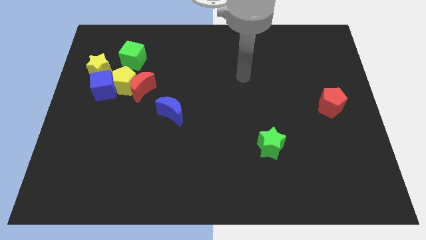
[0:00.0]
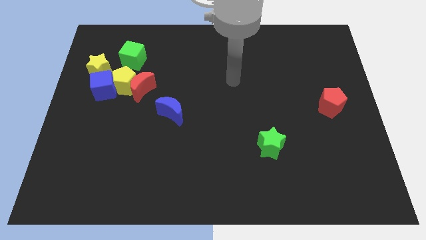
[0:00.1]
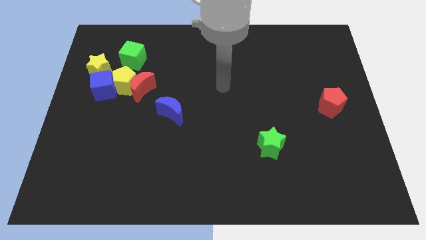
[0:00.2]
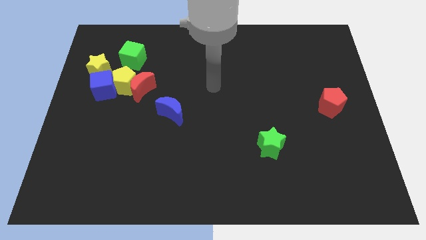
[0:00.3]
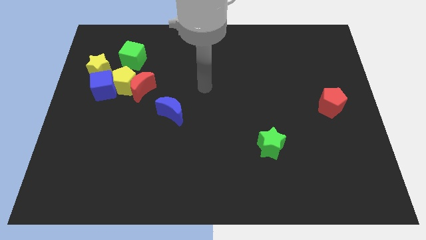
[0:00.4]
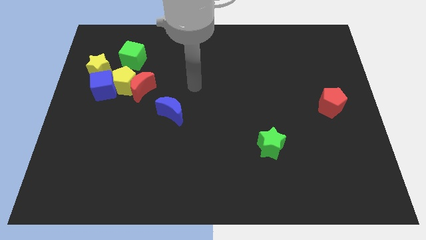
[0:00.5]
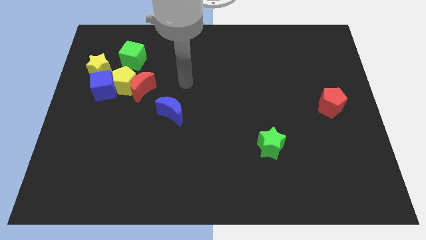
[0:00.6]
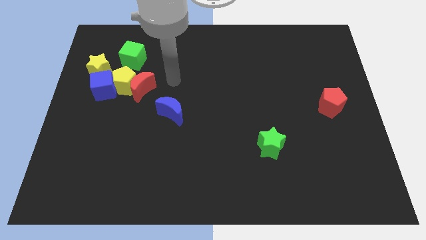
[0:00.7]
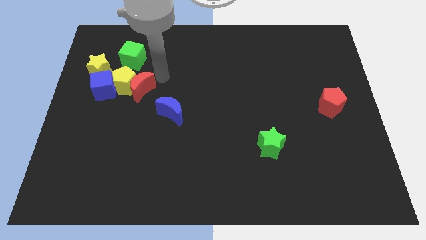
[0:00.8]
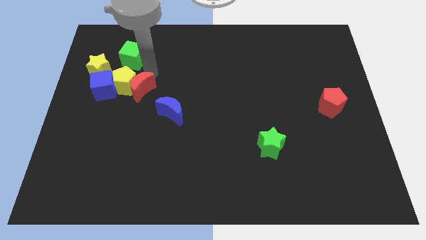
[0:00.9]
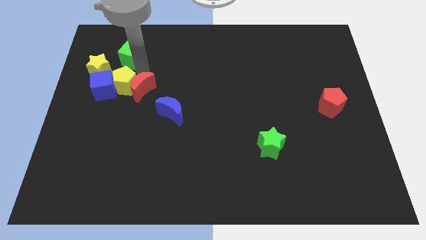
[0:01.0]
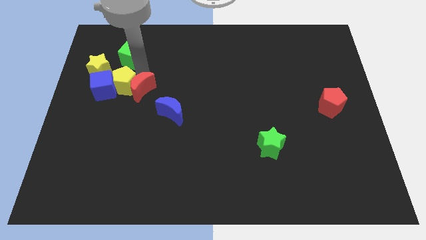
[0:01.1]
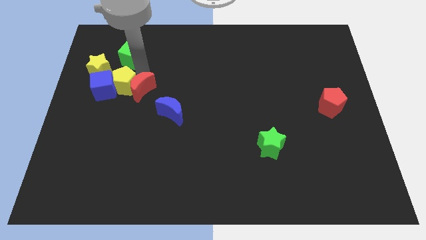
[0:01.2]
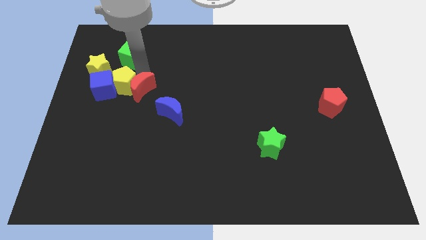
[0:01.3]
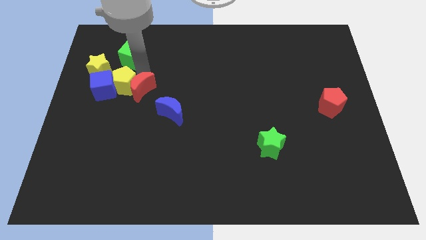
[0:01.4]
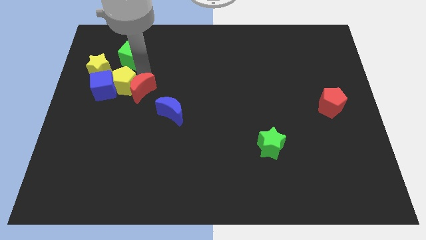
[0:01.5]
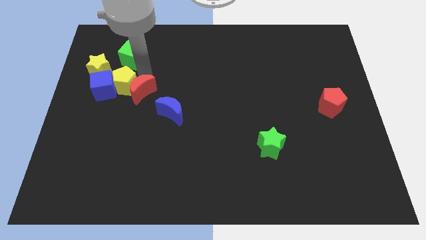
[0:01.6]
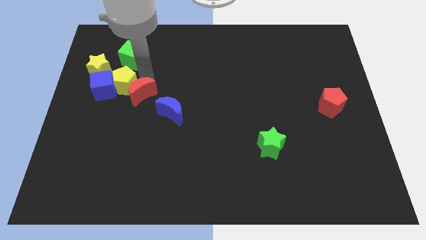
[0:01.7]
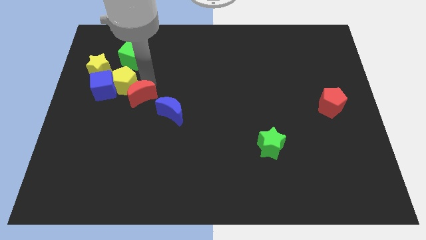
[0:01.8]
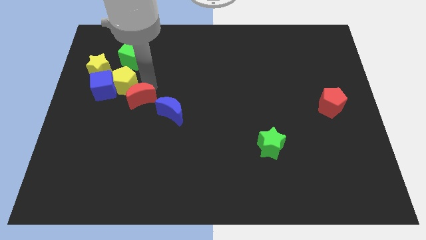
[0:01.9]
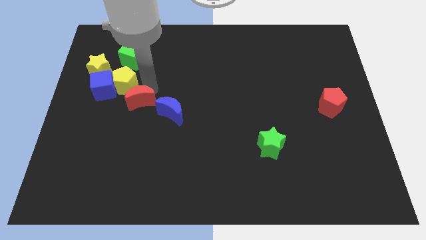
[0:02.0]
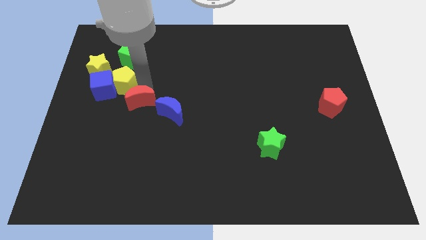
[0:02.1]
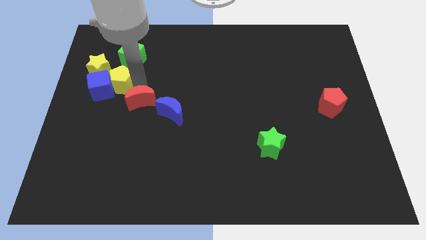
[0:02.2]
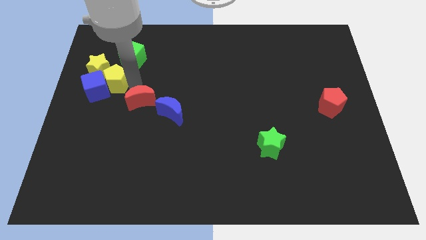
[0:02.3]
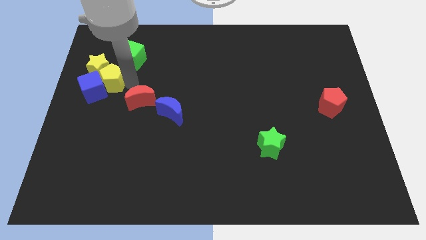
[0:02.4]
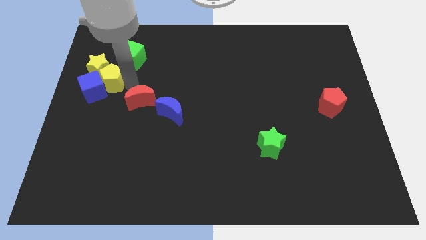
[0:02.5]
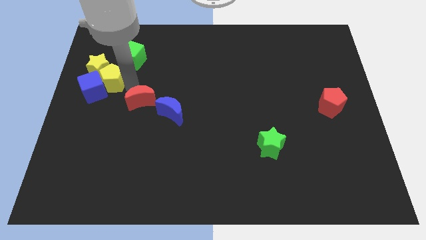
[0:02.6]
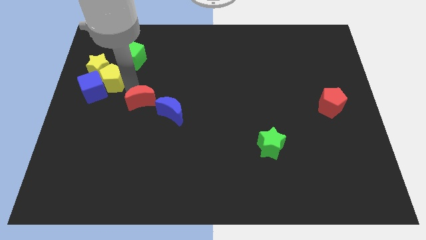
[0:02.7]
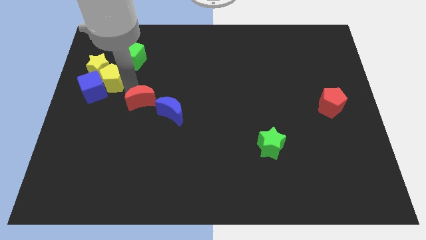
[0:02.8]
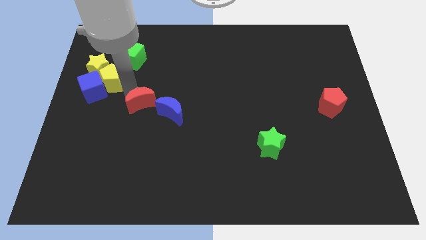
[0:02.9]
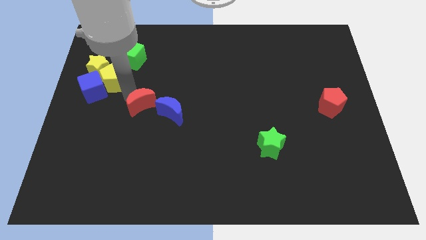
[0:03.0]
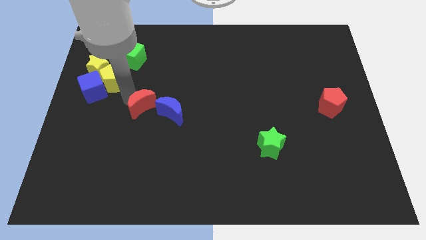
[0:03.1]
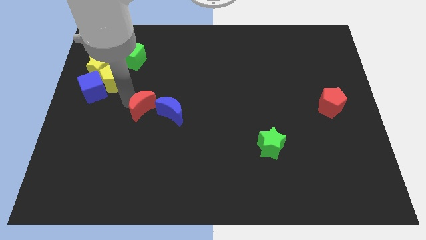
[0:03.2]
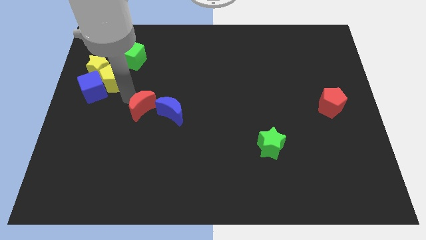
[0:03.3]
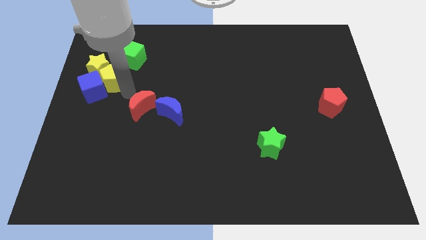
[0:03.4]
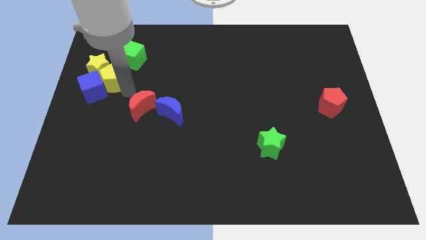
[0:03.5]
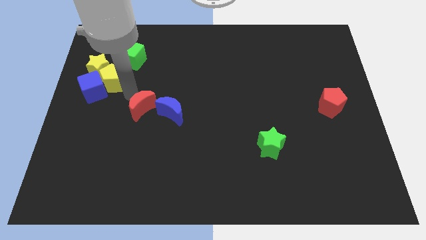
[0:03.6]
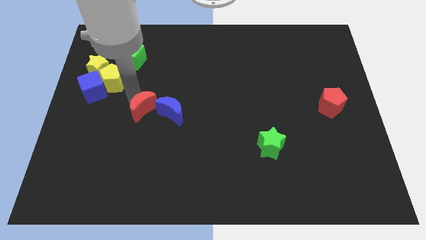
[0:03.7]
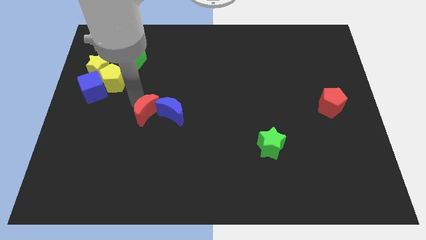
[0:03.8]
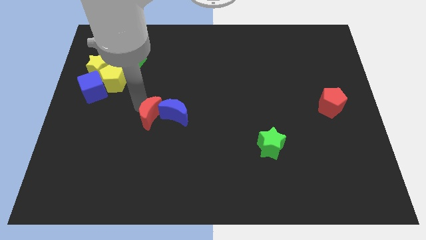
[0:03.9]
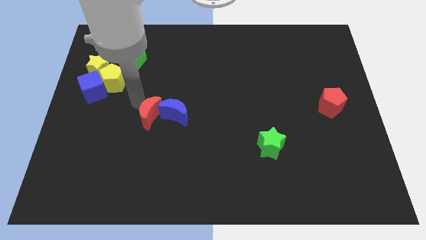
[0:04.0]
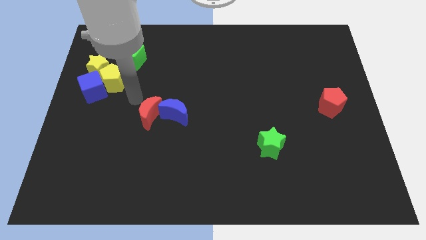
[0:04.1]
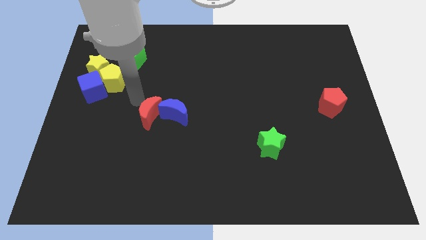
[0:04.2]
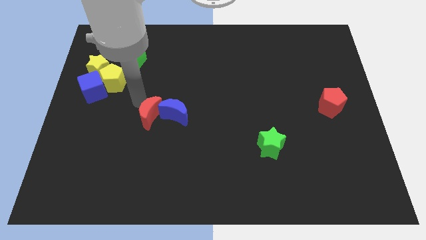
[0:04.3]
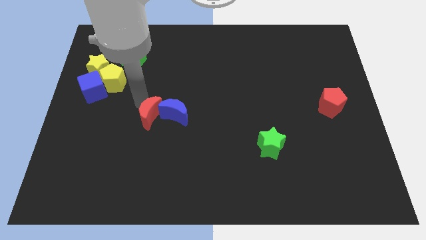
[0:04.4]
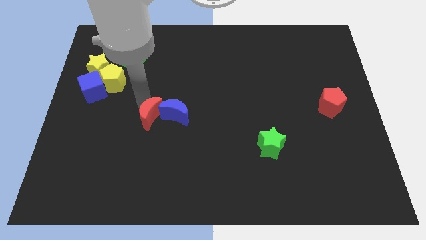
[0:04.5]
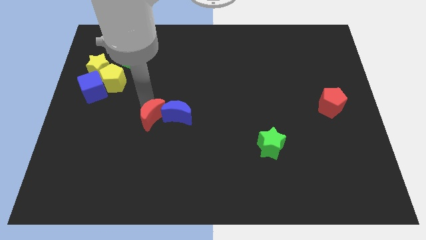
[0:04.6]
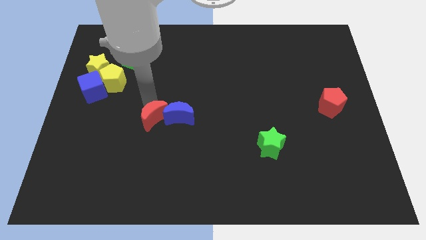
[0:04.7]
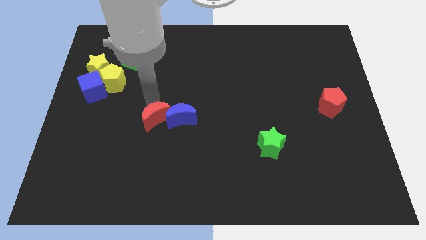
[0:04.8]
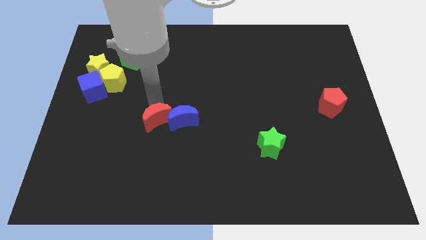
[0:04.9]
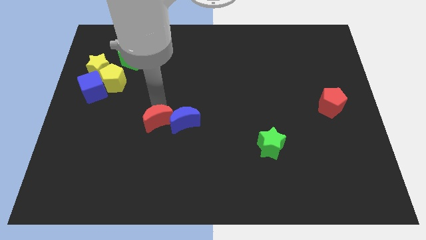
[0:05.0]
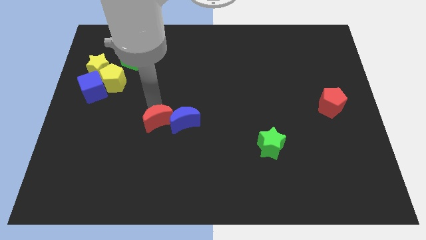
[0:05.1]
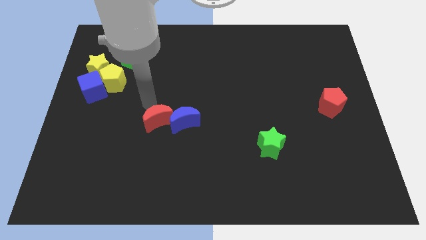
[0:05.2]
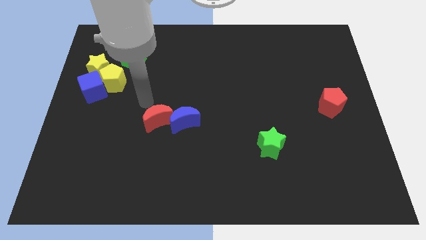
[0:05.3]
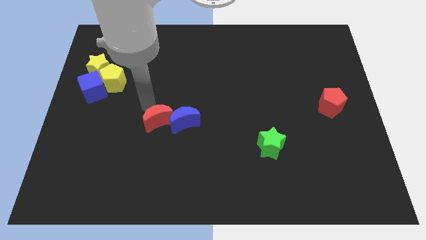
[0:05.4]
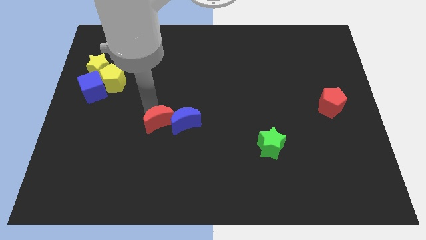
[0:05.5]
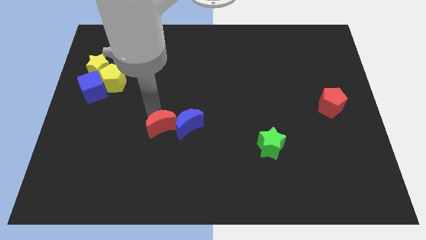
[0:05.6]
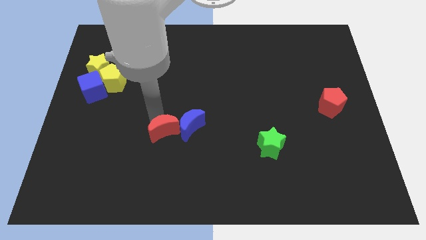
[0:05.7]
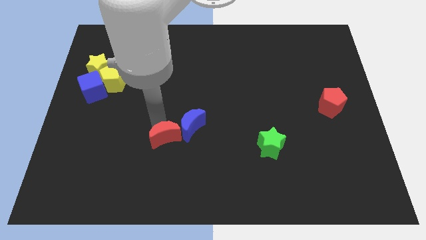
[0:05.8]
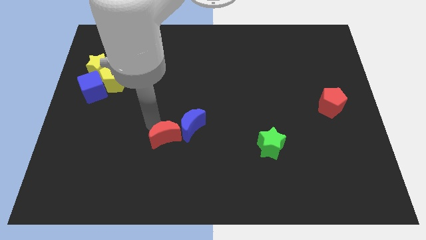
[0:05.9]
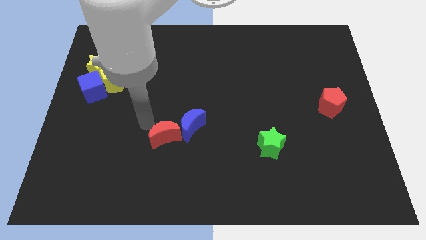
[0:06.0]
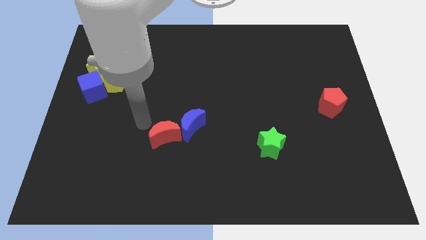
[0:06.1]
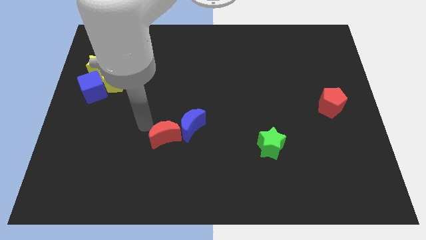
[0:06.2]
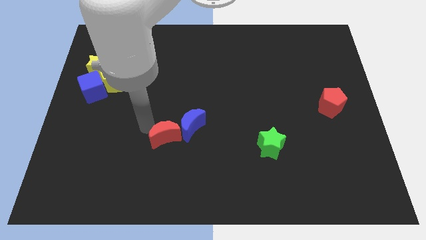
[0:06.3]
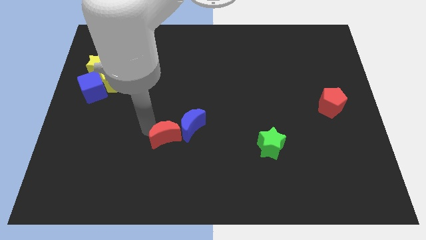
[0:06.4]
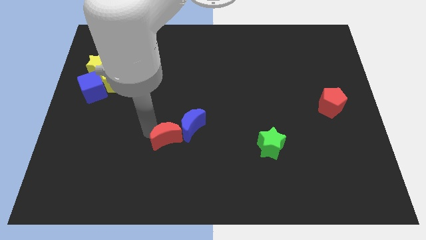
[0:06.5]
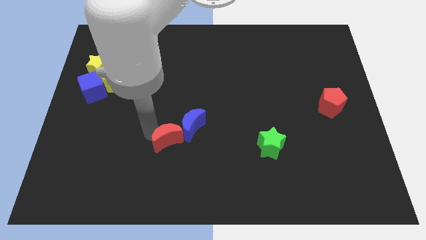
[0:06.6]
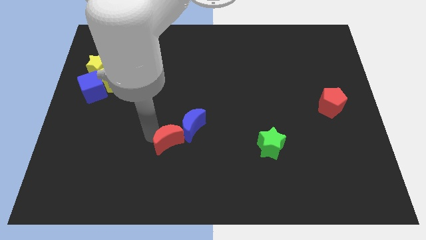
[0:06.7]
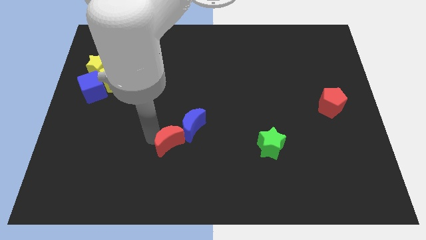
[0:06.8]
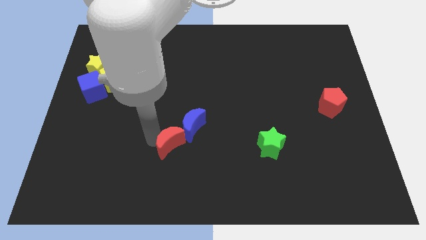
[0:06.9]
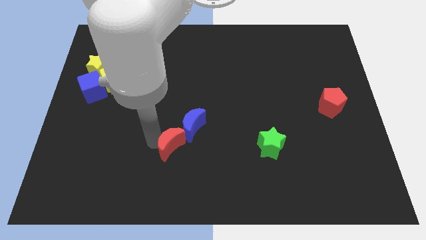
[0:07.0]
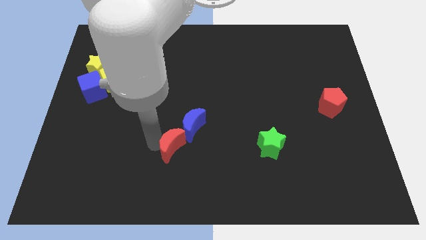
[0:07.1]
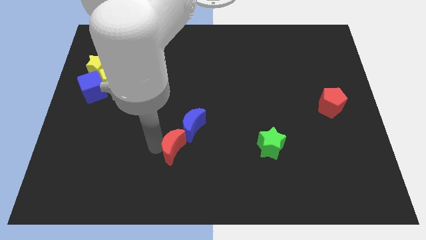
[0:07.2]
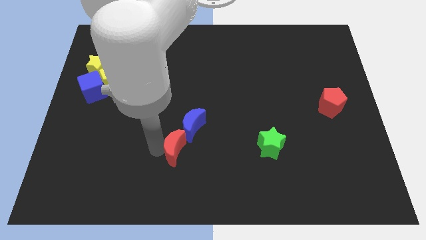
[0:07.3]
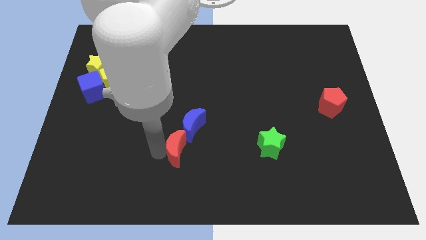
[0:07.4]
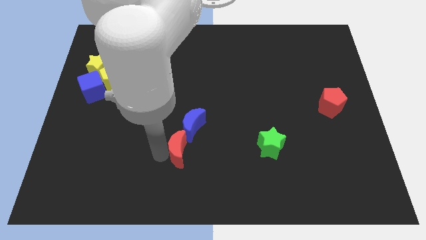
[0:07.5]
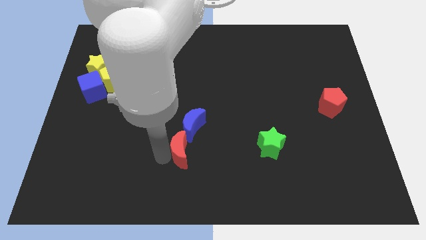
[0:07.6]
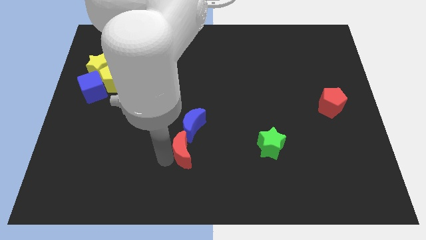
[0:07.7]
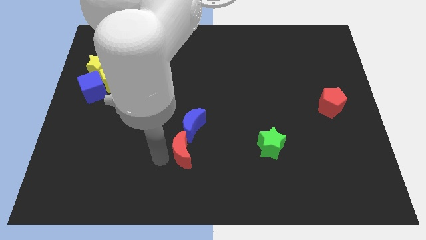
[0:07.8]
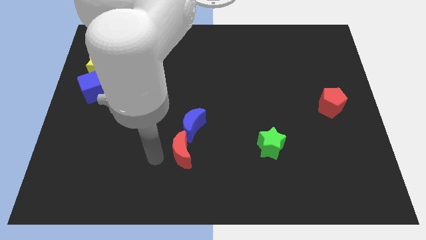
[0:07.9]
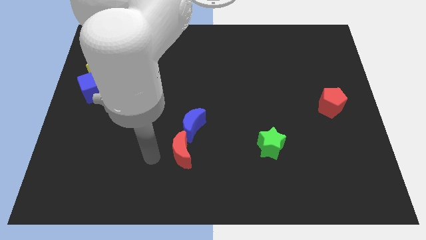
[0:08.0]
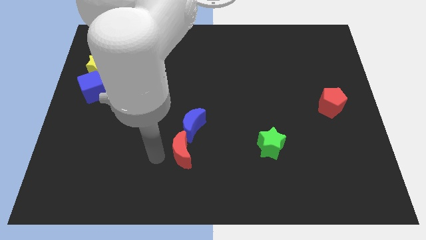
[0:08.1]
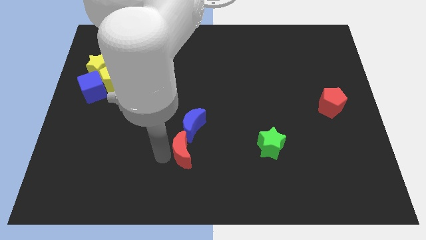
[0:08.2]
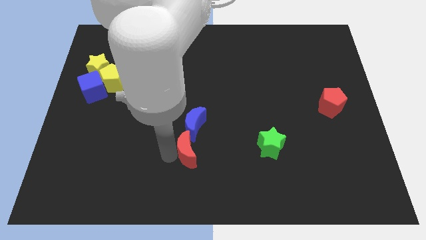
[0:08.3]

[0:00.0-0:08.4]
slide the red moon downwards and then right
